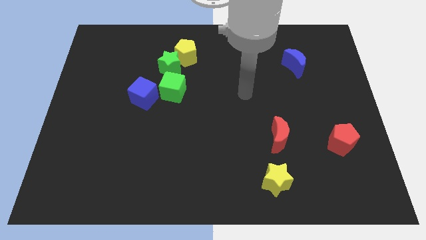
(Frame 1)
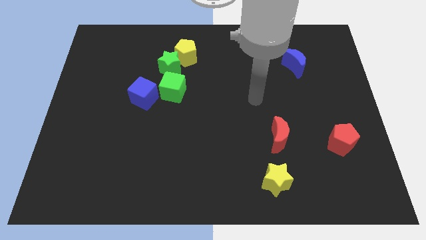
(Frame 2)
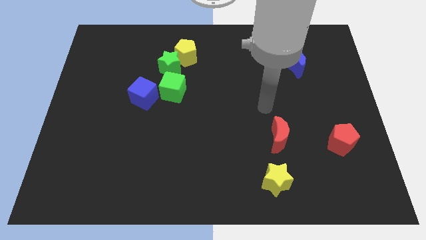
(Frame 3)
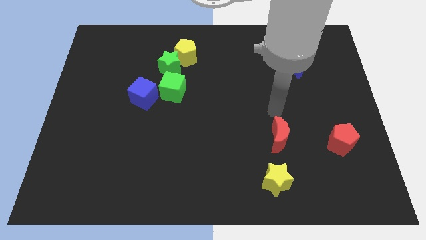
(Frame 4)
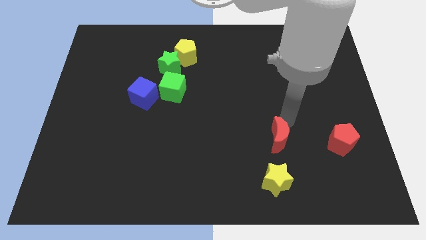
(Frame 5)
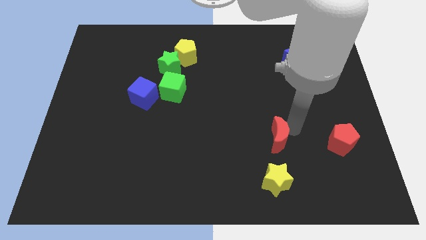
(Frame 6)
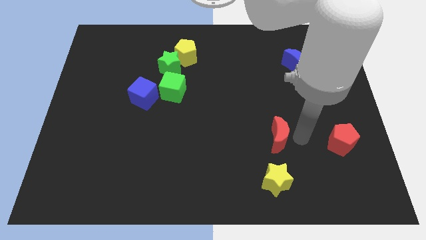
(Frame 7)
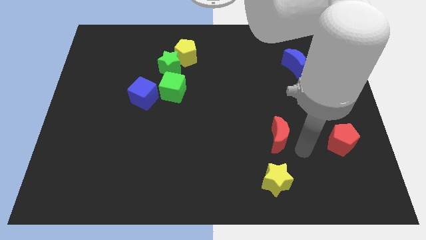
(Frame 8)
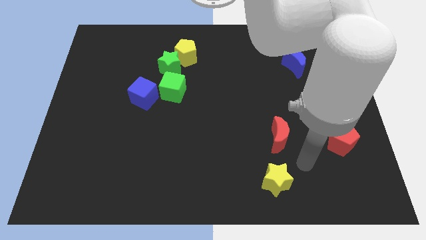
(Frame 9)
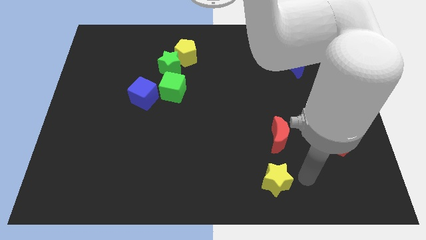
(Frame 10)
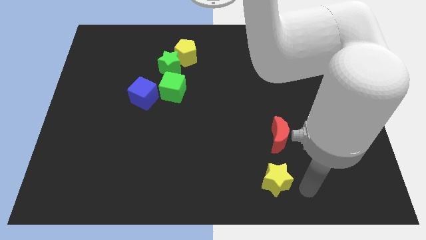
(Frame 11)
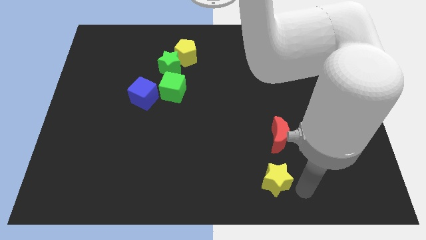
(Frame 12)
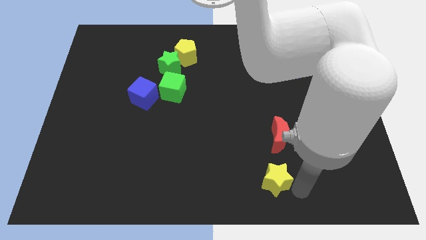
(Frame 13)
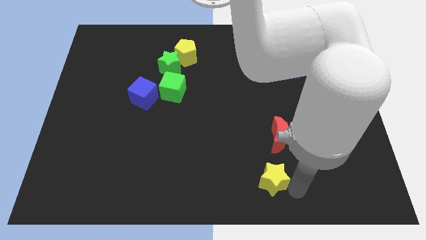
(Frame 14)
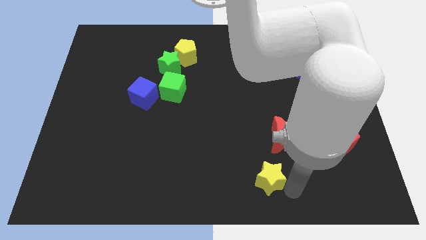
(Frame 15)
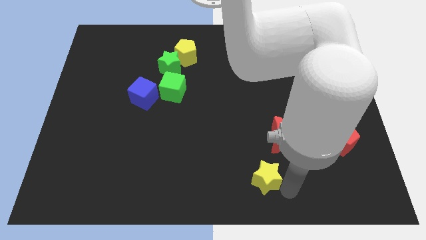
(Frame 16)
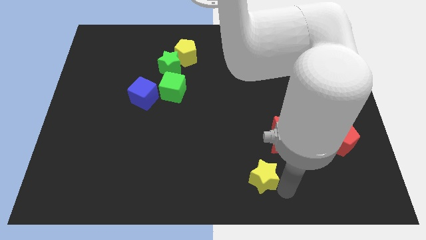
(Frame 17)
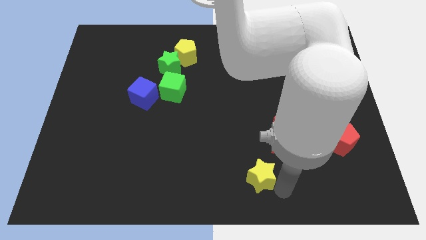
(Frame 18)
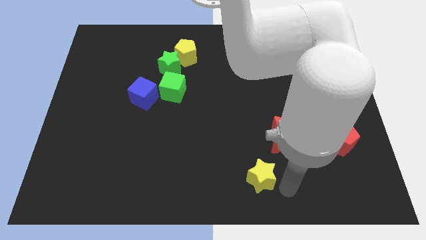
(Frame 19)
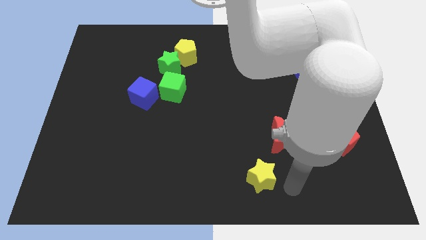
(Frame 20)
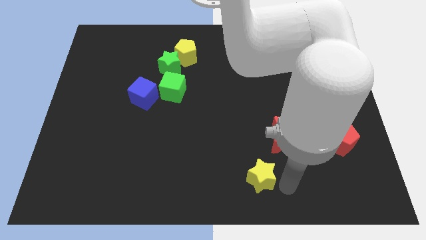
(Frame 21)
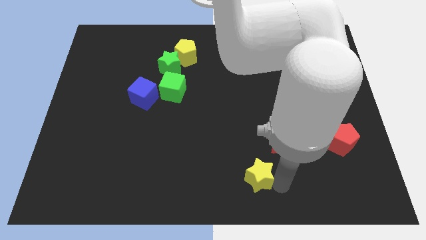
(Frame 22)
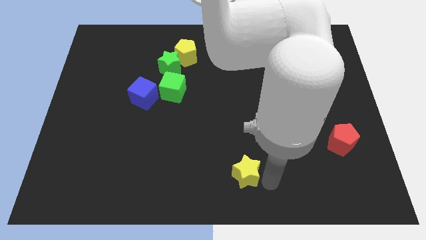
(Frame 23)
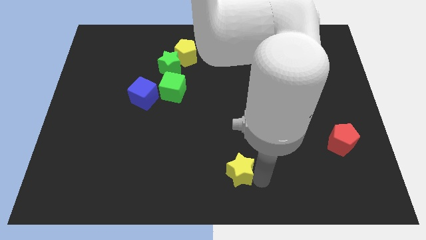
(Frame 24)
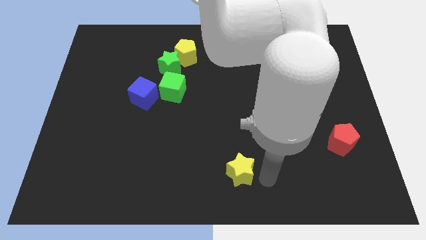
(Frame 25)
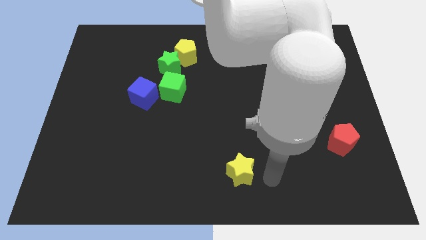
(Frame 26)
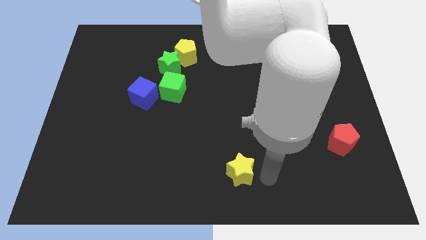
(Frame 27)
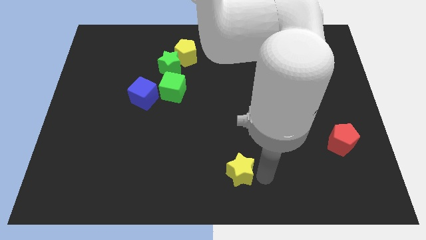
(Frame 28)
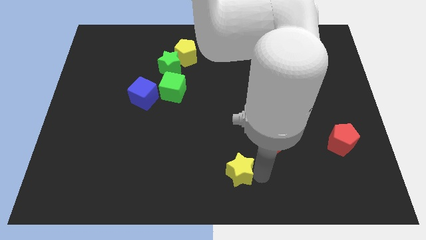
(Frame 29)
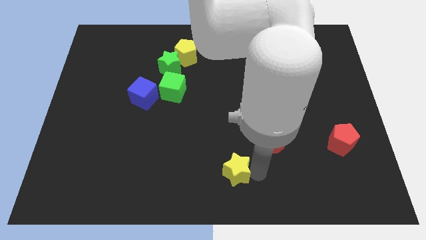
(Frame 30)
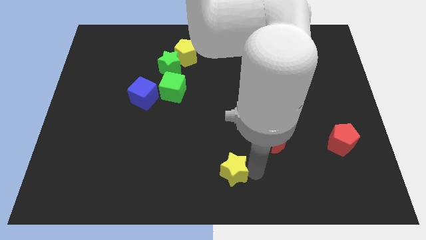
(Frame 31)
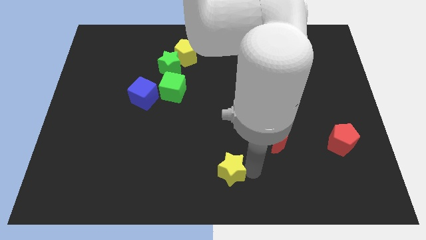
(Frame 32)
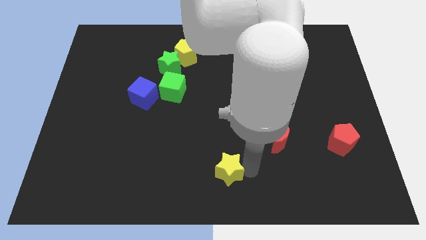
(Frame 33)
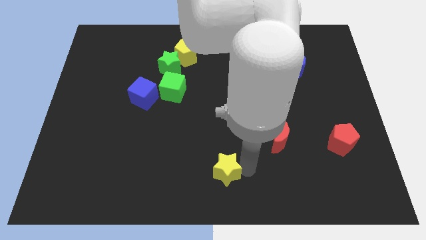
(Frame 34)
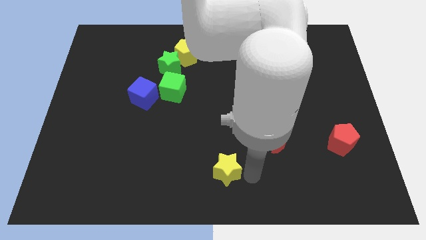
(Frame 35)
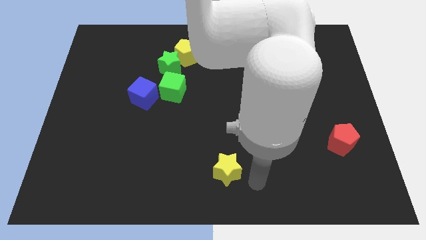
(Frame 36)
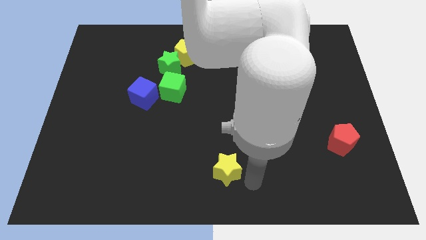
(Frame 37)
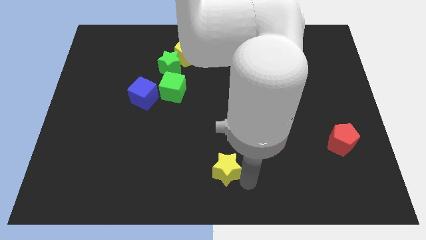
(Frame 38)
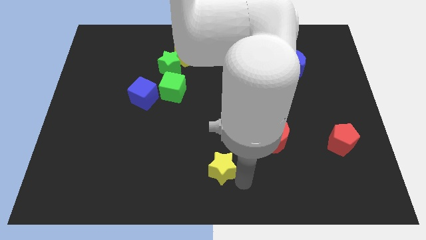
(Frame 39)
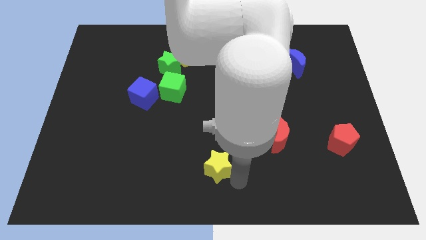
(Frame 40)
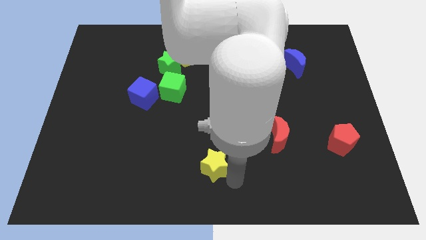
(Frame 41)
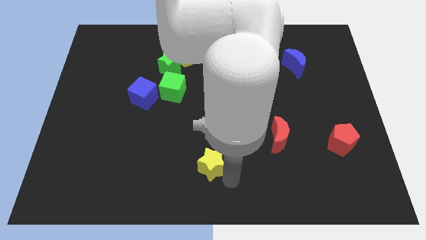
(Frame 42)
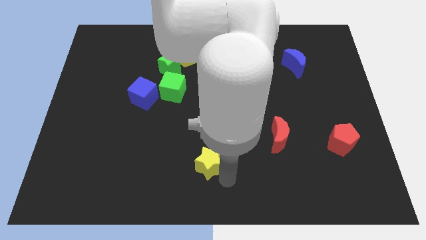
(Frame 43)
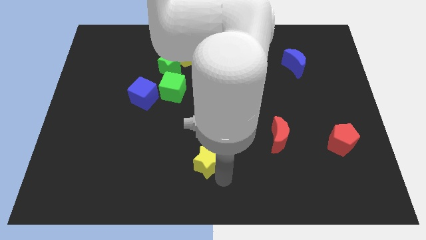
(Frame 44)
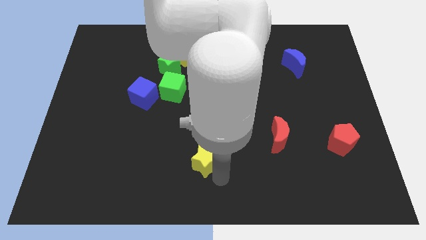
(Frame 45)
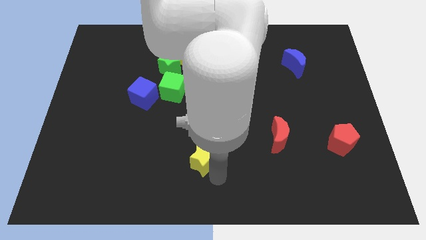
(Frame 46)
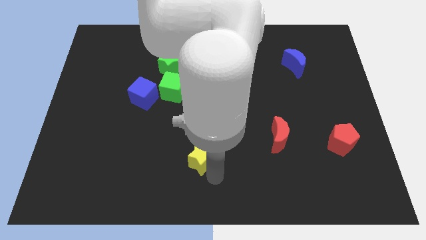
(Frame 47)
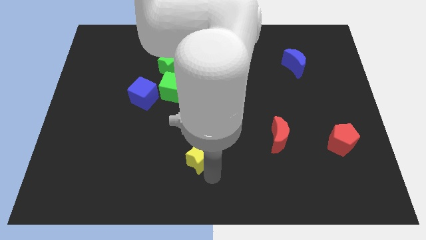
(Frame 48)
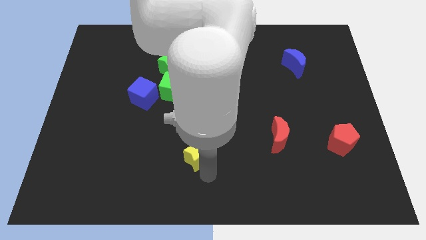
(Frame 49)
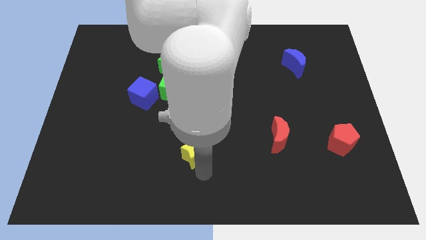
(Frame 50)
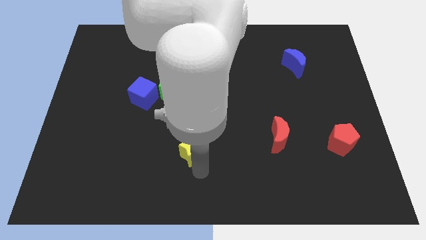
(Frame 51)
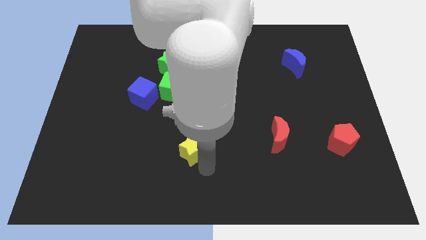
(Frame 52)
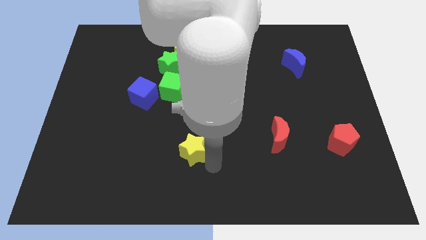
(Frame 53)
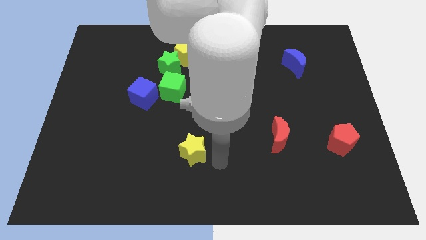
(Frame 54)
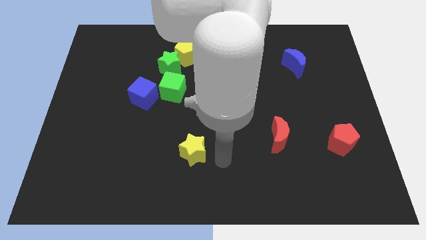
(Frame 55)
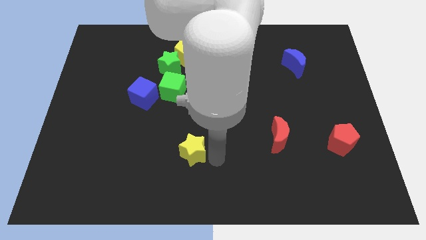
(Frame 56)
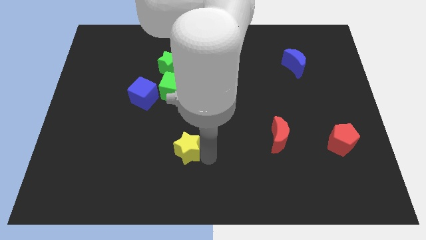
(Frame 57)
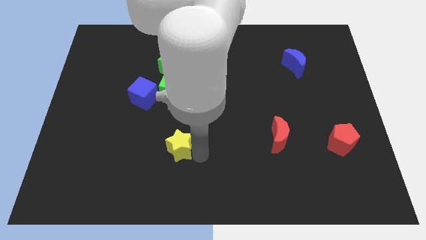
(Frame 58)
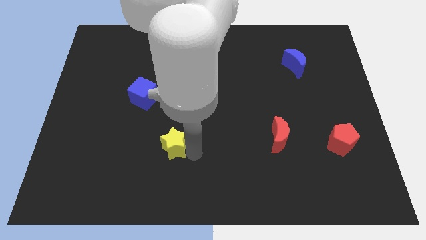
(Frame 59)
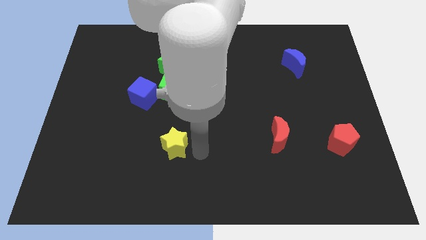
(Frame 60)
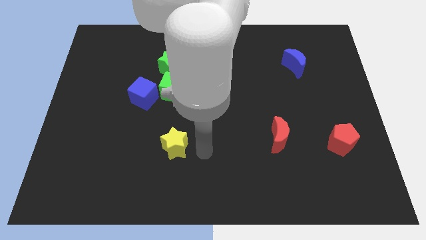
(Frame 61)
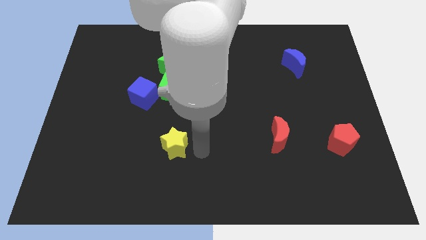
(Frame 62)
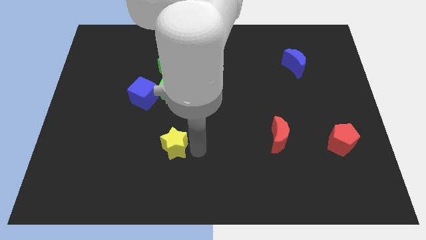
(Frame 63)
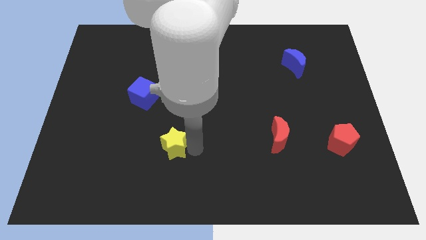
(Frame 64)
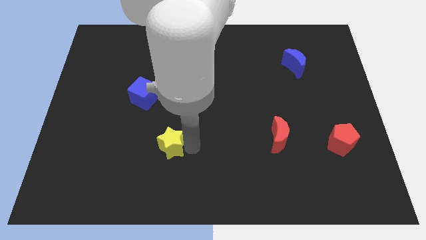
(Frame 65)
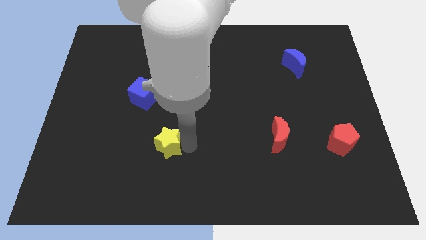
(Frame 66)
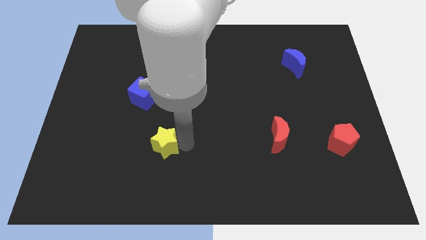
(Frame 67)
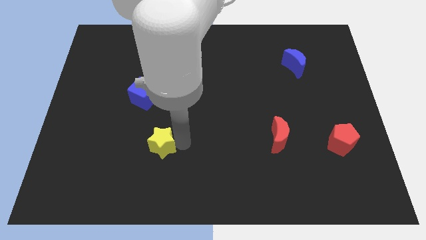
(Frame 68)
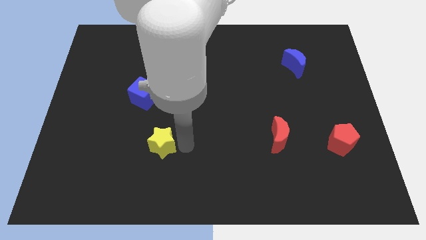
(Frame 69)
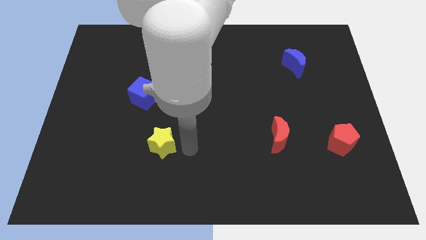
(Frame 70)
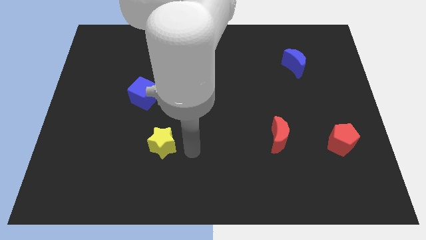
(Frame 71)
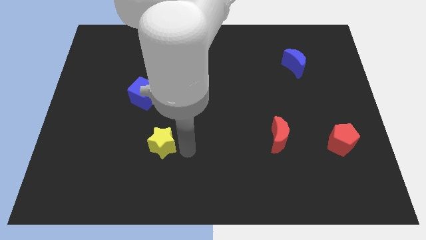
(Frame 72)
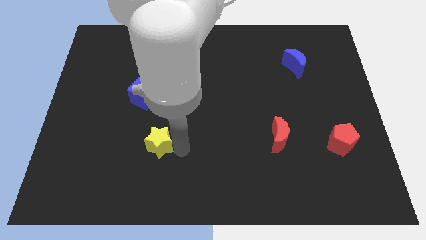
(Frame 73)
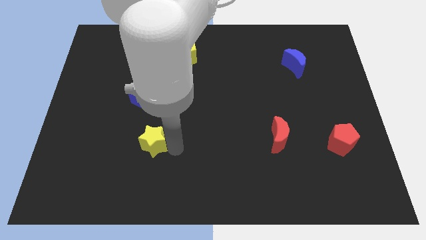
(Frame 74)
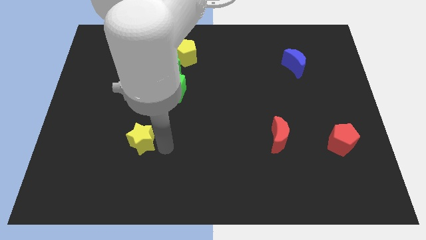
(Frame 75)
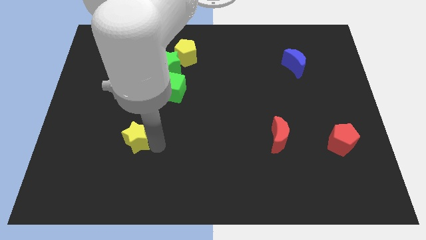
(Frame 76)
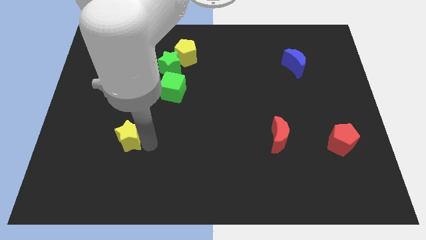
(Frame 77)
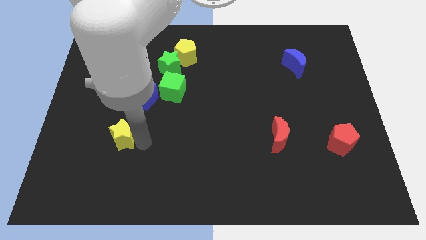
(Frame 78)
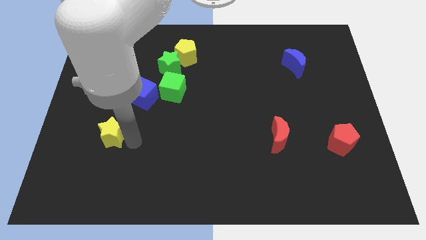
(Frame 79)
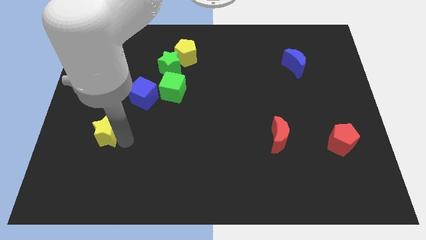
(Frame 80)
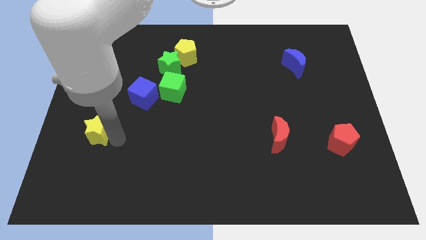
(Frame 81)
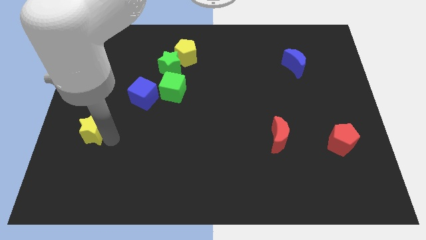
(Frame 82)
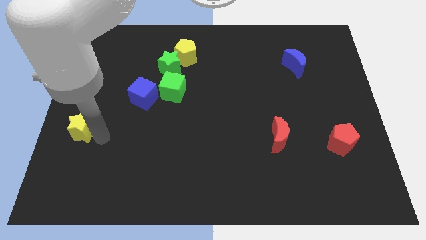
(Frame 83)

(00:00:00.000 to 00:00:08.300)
move the yellow star to the left side
